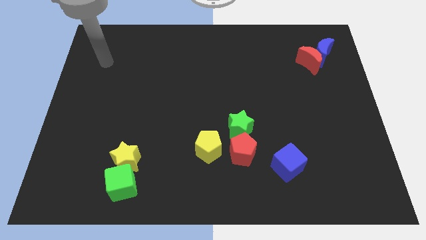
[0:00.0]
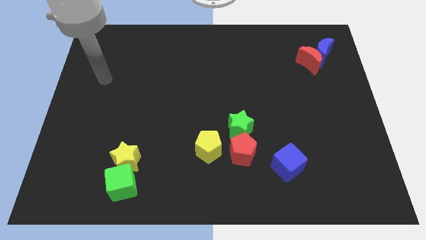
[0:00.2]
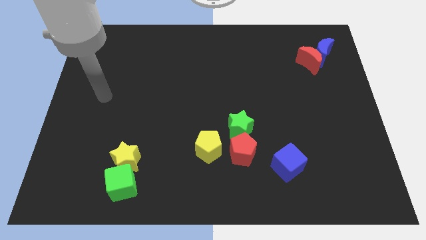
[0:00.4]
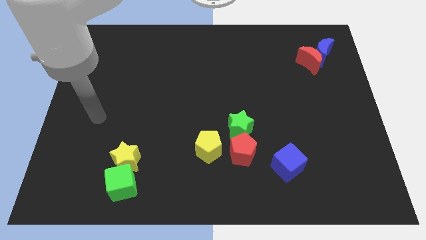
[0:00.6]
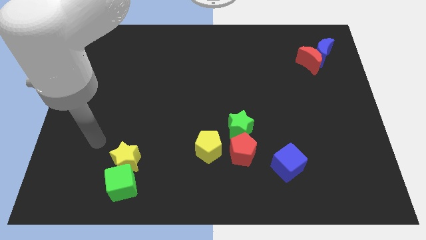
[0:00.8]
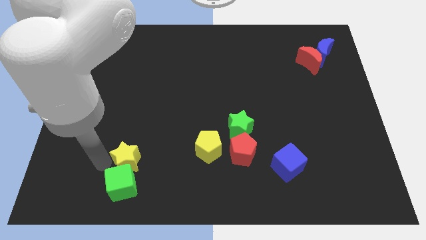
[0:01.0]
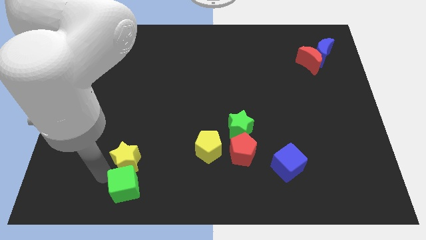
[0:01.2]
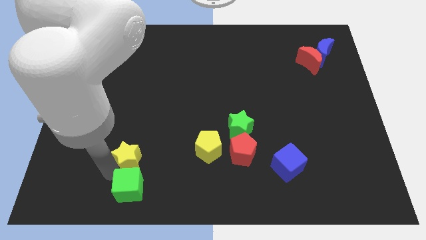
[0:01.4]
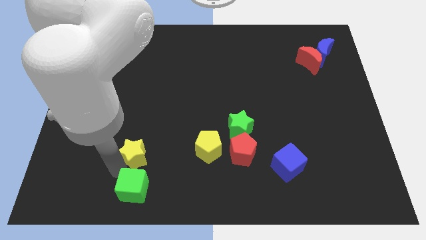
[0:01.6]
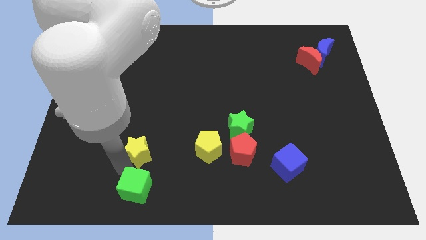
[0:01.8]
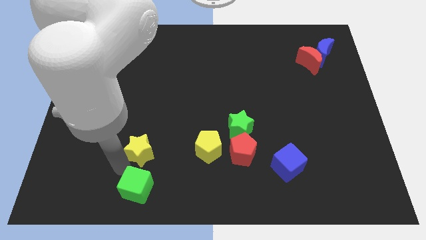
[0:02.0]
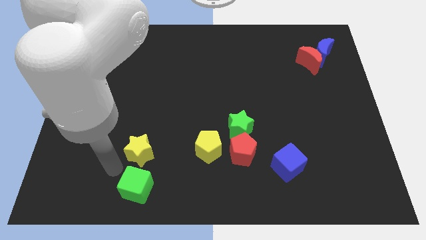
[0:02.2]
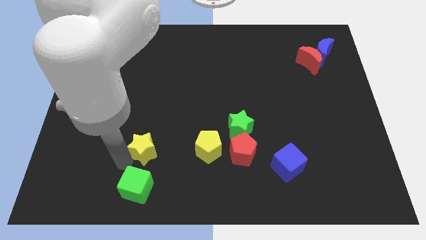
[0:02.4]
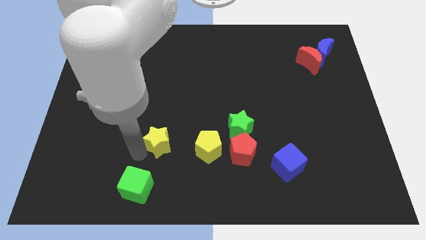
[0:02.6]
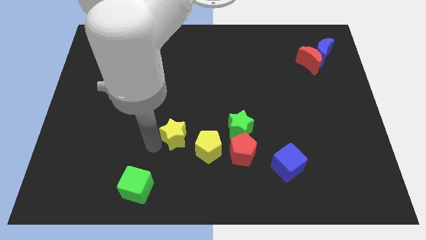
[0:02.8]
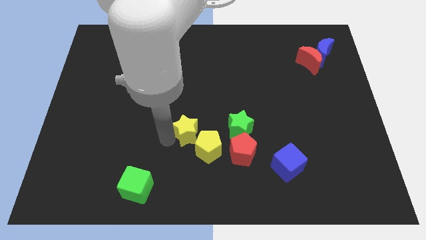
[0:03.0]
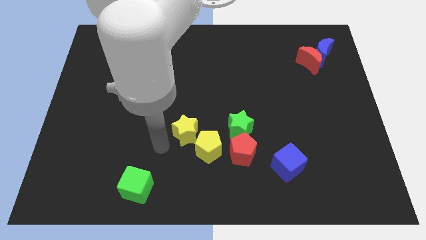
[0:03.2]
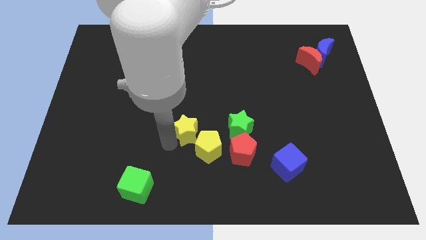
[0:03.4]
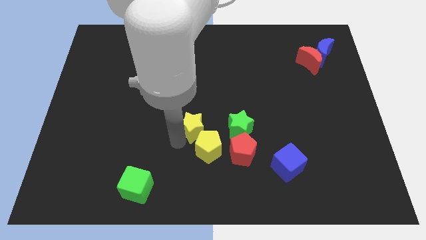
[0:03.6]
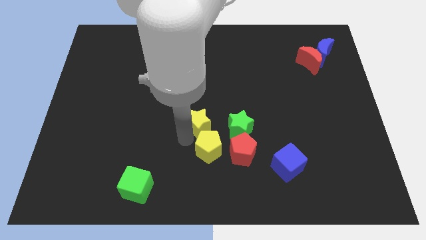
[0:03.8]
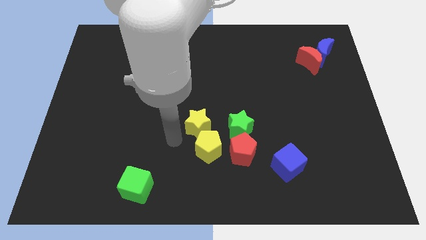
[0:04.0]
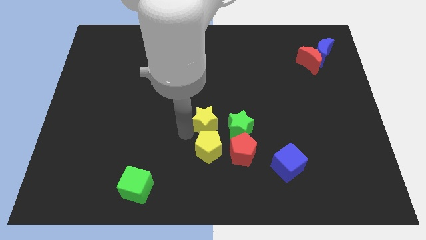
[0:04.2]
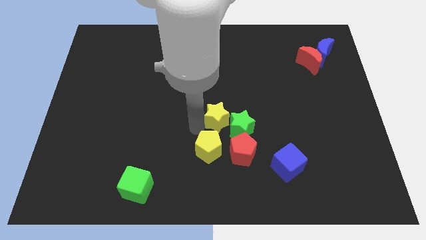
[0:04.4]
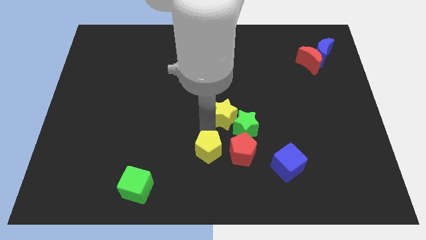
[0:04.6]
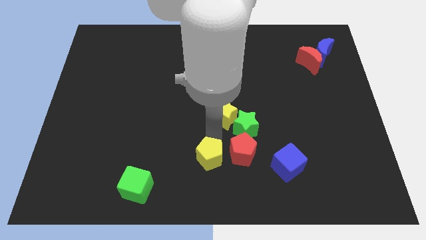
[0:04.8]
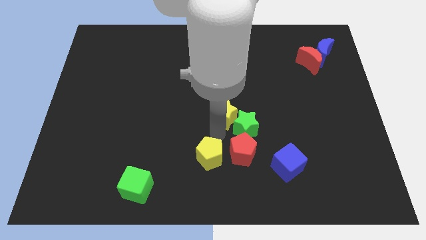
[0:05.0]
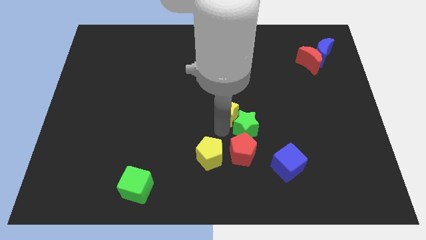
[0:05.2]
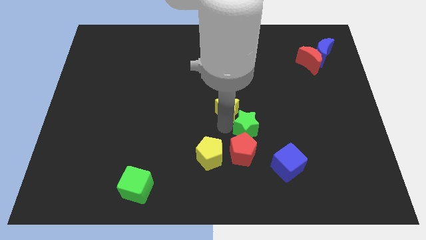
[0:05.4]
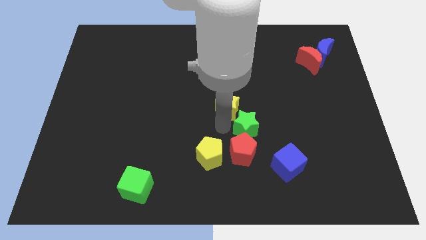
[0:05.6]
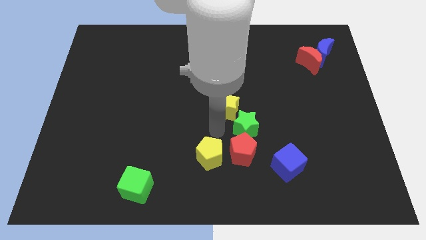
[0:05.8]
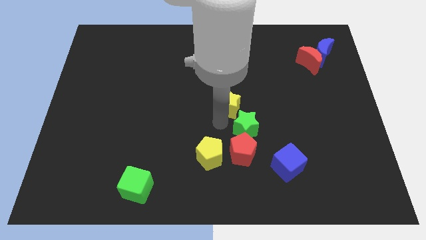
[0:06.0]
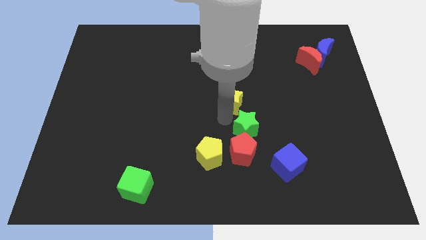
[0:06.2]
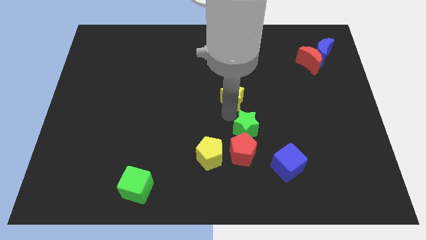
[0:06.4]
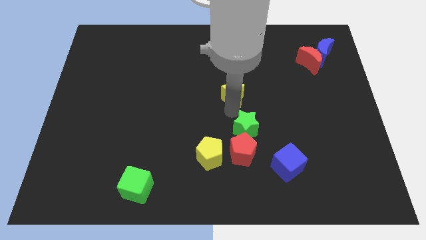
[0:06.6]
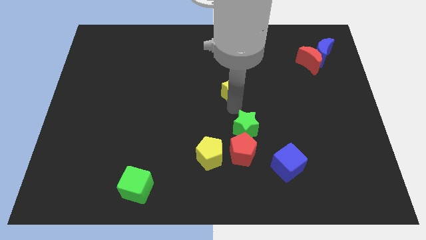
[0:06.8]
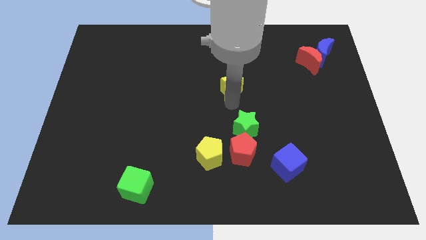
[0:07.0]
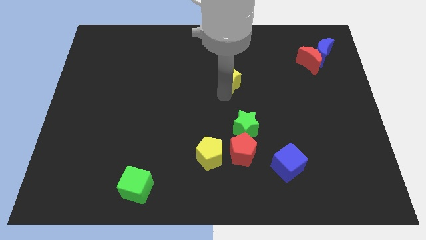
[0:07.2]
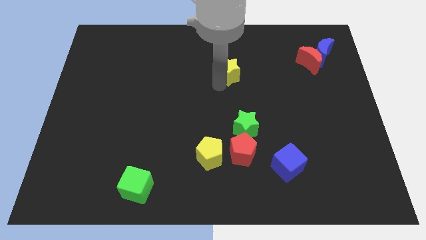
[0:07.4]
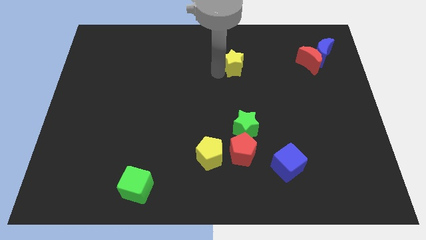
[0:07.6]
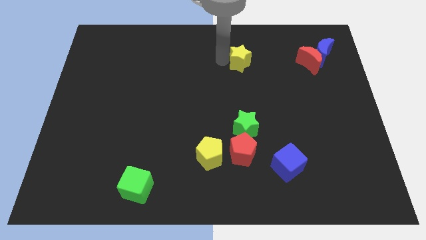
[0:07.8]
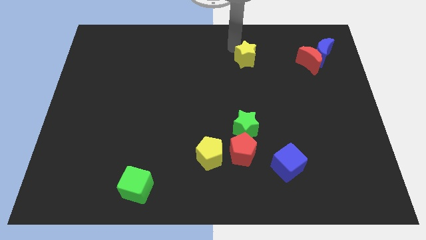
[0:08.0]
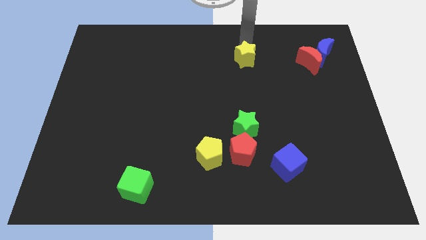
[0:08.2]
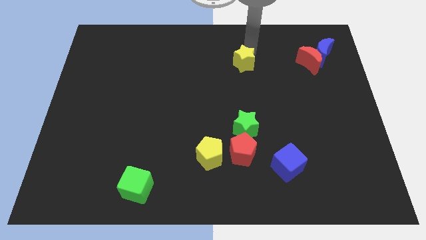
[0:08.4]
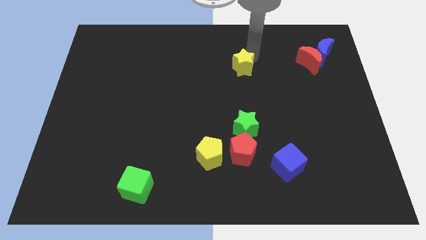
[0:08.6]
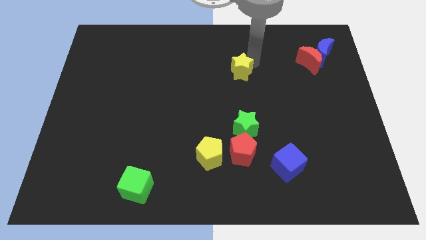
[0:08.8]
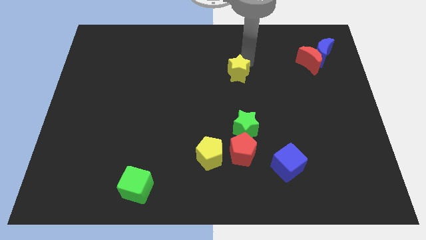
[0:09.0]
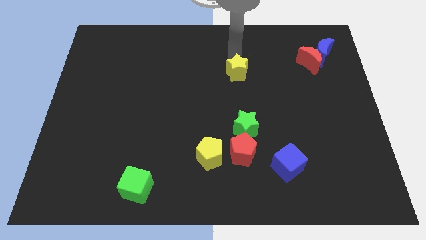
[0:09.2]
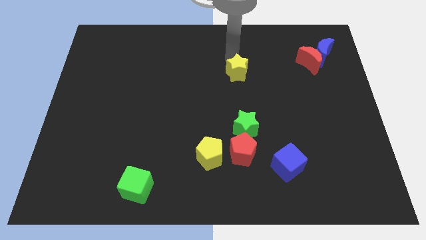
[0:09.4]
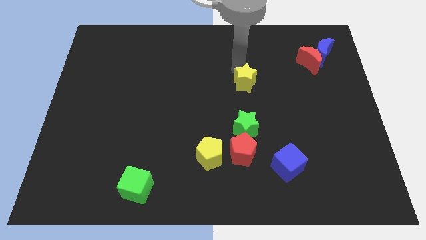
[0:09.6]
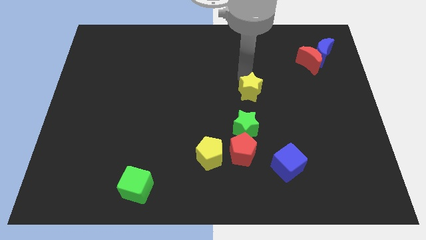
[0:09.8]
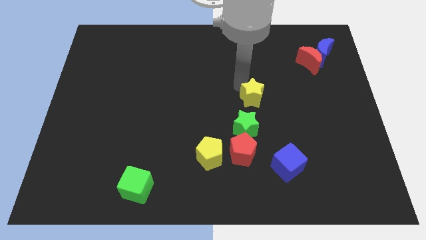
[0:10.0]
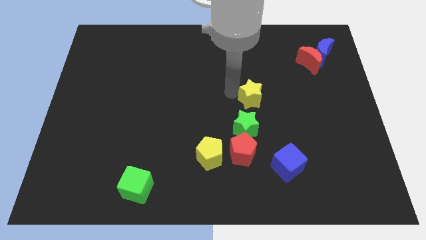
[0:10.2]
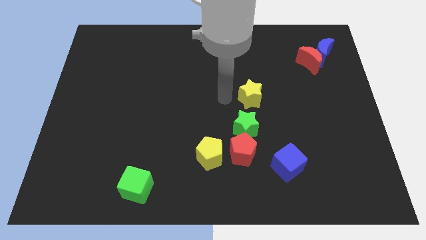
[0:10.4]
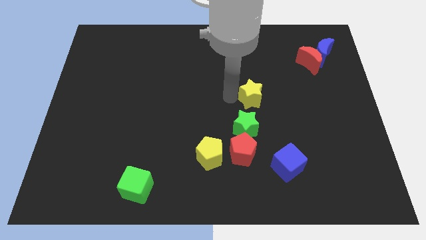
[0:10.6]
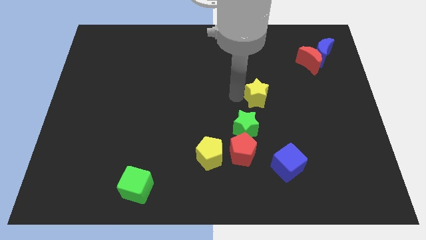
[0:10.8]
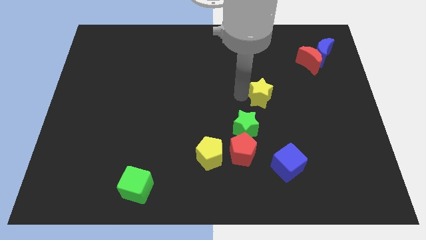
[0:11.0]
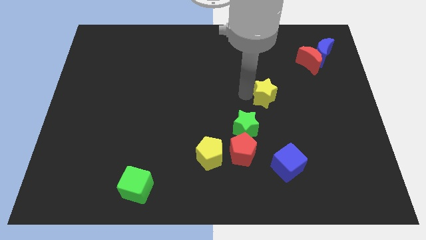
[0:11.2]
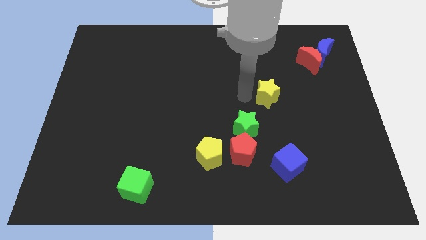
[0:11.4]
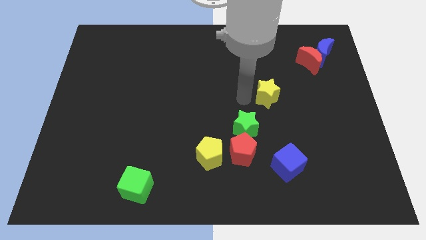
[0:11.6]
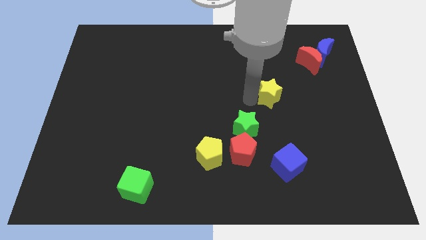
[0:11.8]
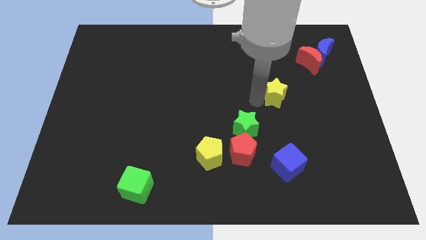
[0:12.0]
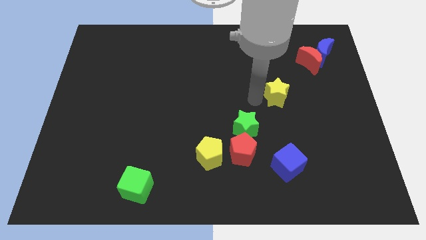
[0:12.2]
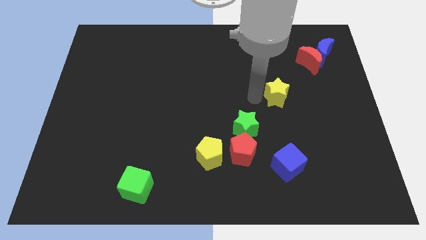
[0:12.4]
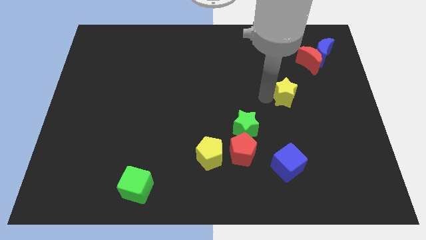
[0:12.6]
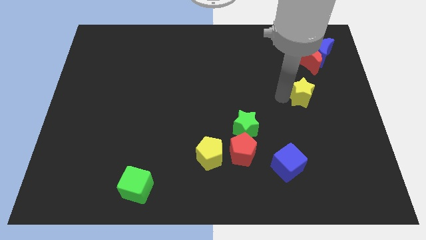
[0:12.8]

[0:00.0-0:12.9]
push the yellow star to the bottom side of the red moon

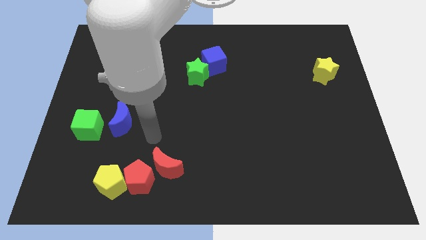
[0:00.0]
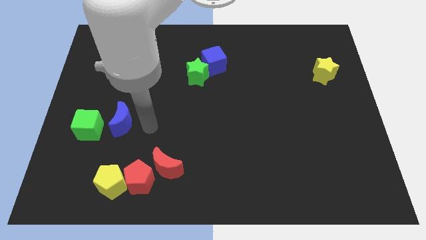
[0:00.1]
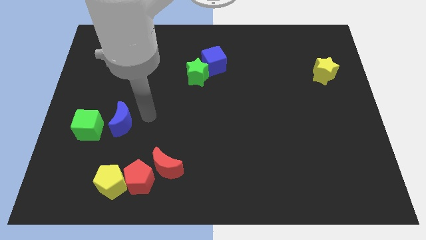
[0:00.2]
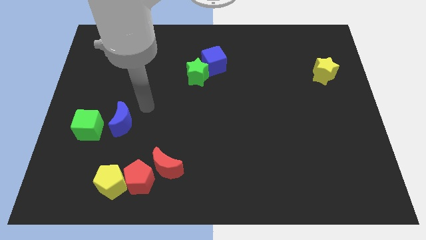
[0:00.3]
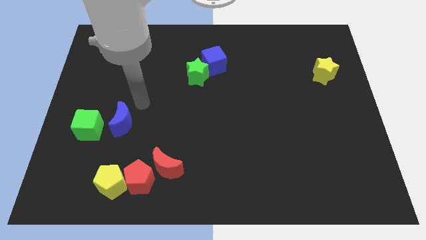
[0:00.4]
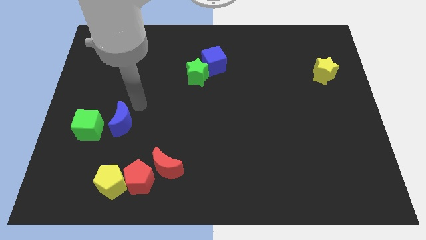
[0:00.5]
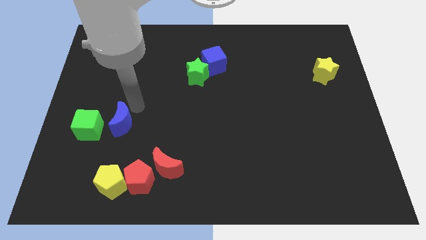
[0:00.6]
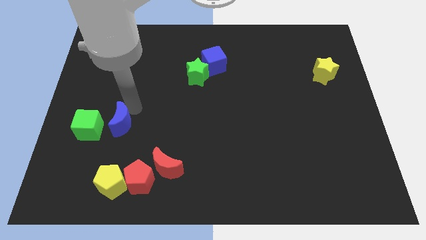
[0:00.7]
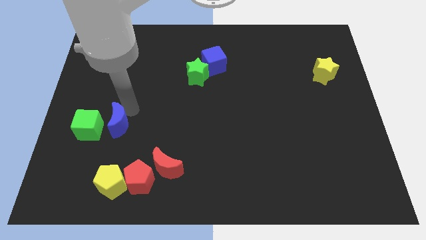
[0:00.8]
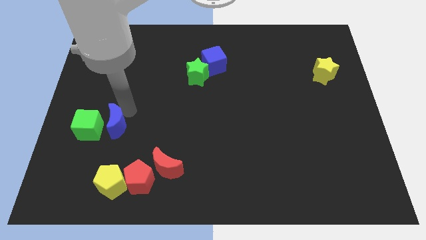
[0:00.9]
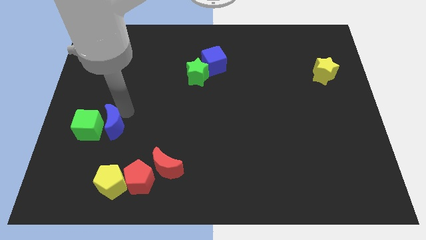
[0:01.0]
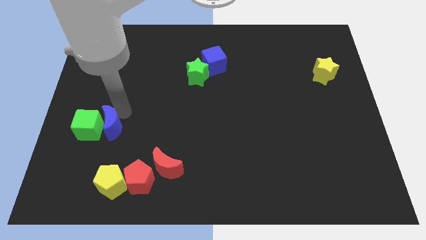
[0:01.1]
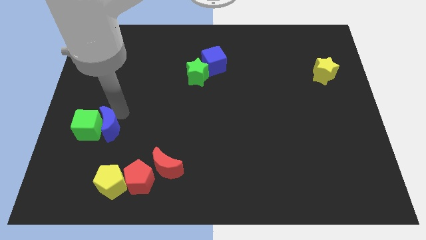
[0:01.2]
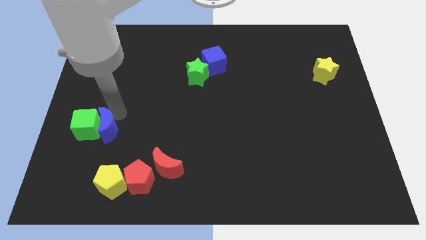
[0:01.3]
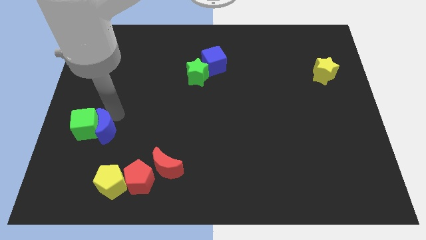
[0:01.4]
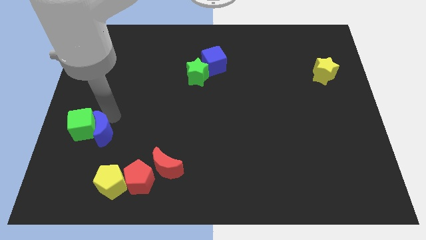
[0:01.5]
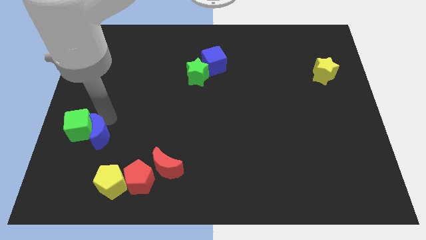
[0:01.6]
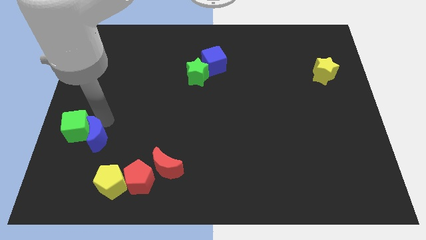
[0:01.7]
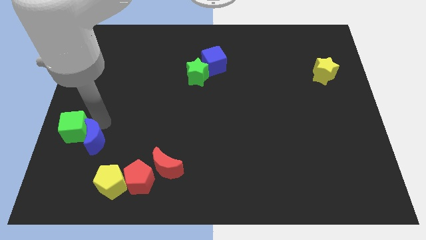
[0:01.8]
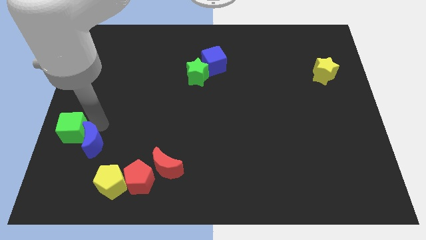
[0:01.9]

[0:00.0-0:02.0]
push the blue moon diagonally up and to the left of the yellow pentagon
